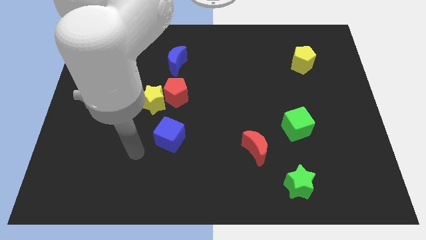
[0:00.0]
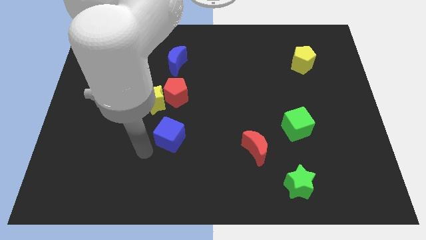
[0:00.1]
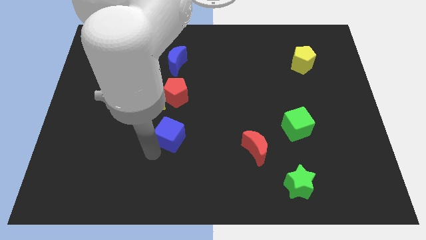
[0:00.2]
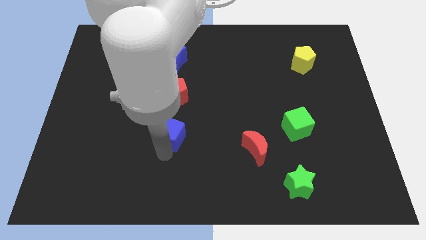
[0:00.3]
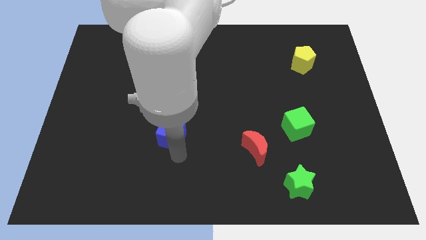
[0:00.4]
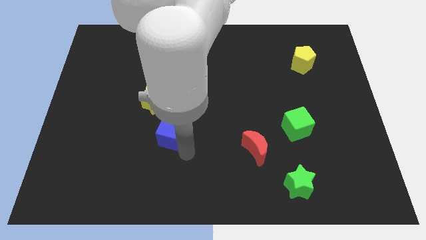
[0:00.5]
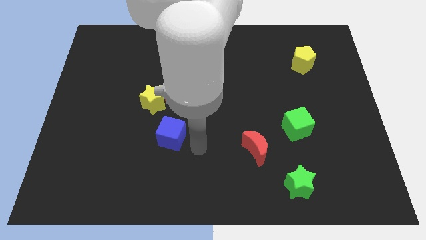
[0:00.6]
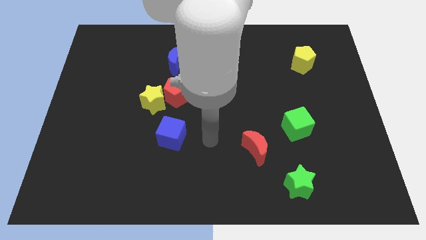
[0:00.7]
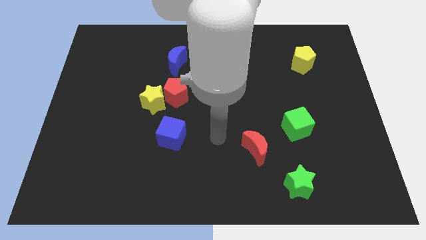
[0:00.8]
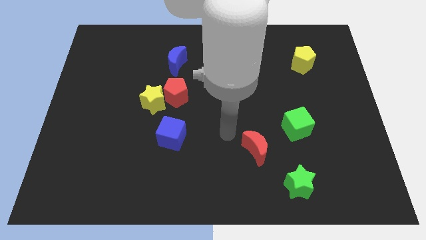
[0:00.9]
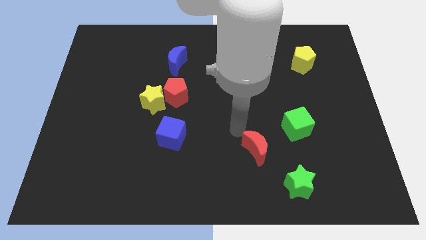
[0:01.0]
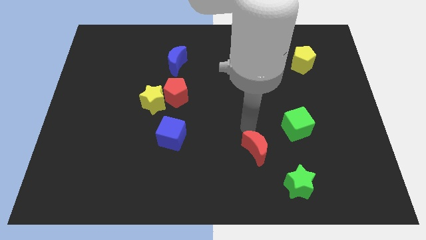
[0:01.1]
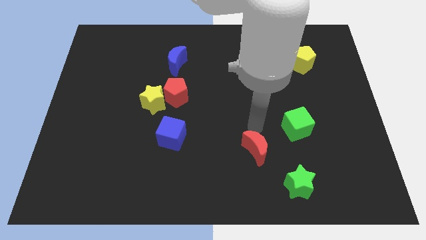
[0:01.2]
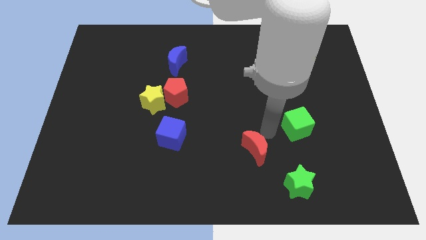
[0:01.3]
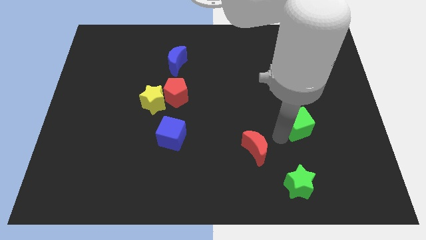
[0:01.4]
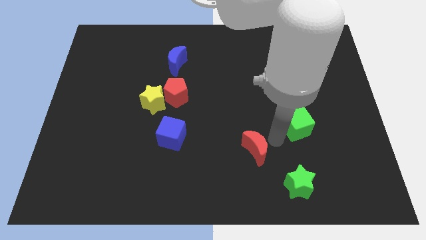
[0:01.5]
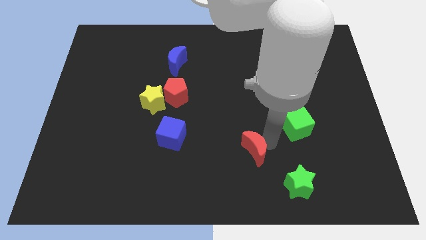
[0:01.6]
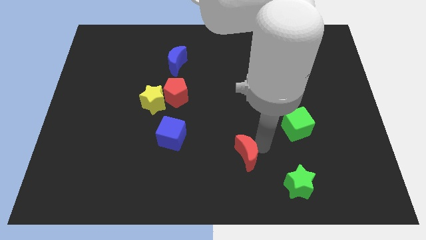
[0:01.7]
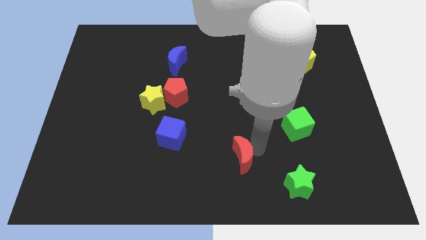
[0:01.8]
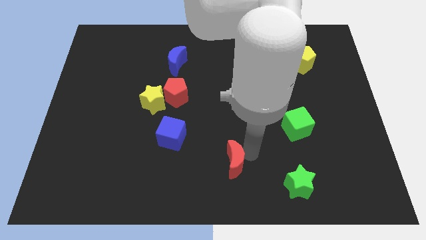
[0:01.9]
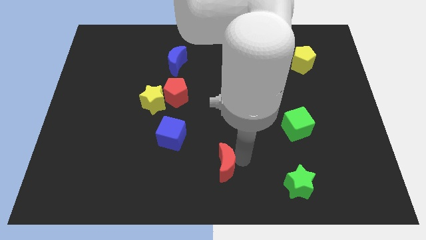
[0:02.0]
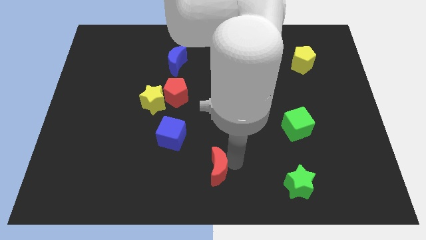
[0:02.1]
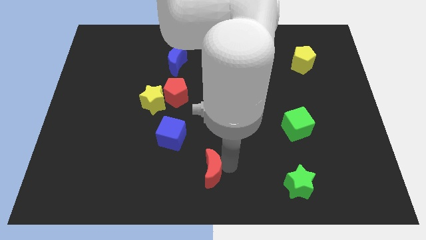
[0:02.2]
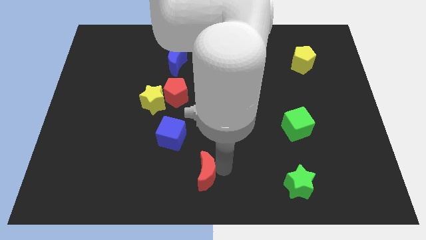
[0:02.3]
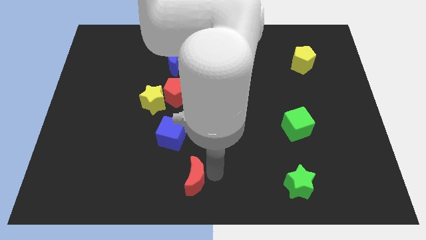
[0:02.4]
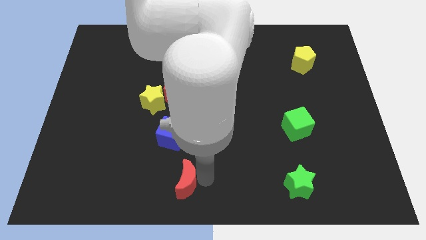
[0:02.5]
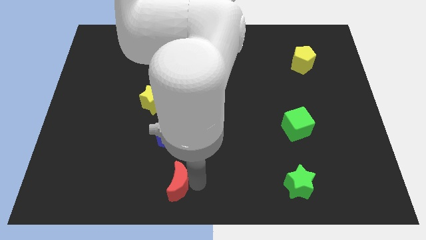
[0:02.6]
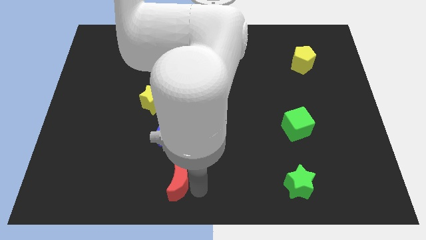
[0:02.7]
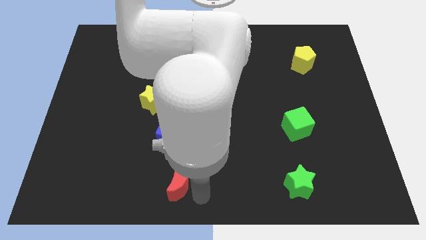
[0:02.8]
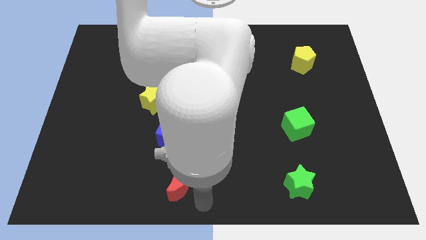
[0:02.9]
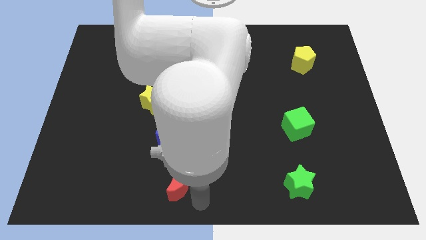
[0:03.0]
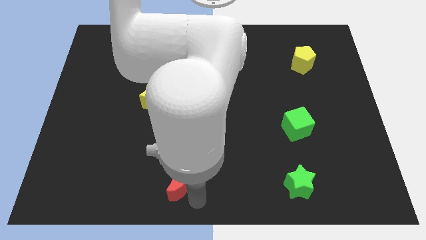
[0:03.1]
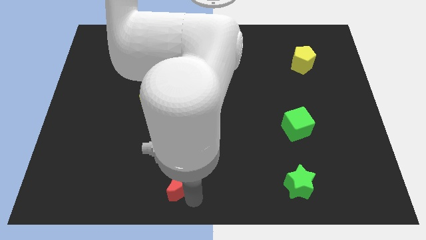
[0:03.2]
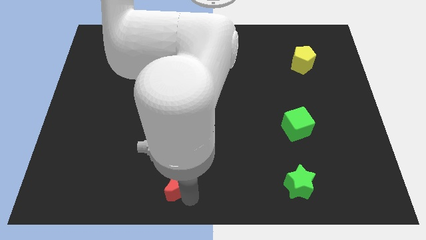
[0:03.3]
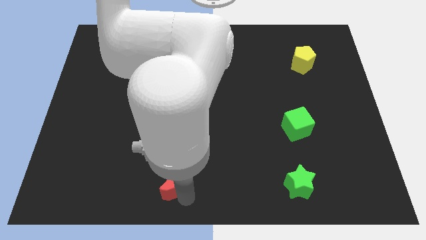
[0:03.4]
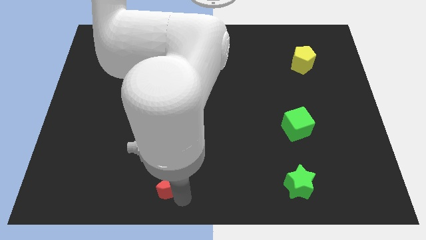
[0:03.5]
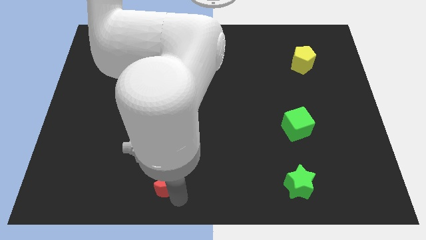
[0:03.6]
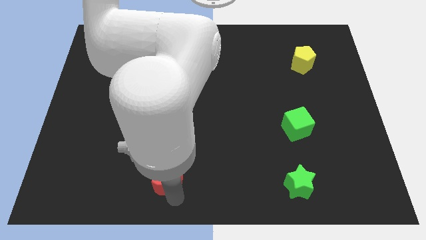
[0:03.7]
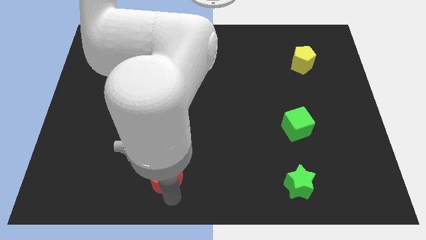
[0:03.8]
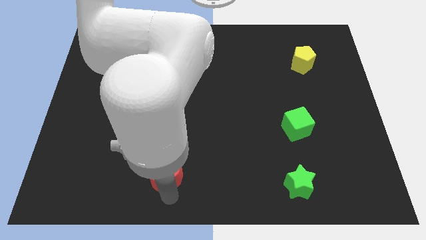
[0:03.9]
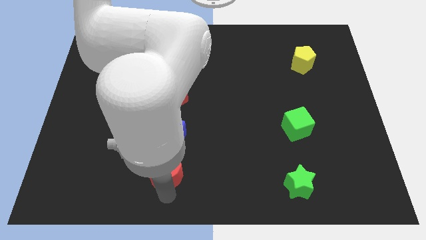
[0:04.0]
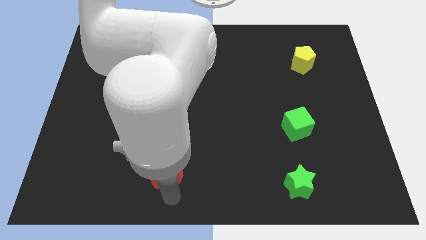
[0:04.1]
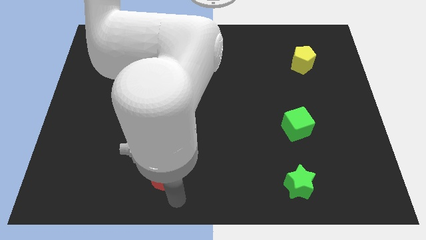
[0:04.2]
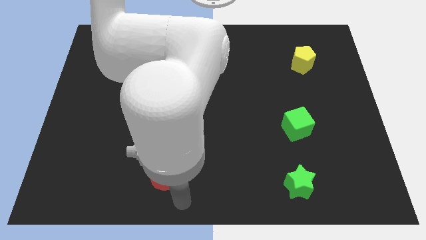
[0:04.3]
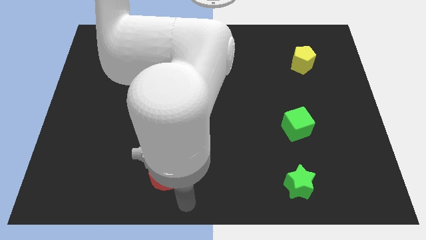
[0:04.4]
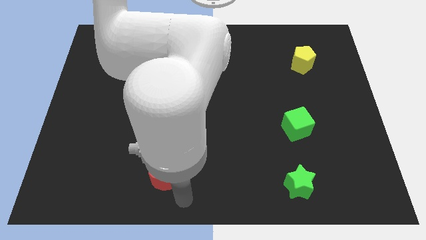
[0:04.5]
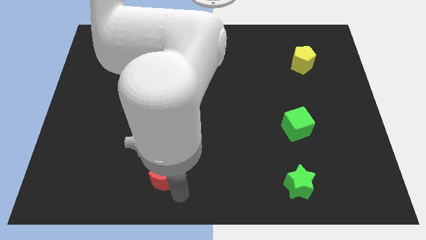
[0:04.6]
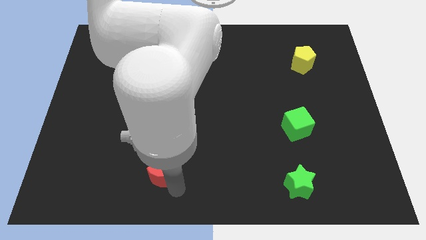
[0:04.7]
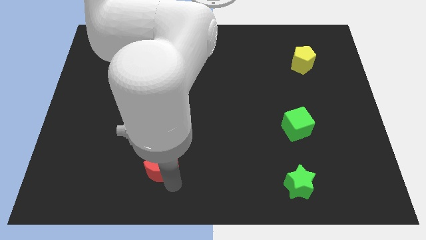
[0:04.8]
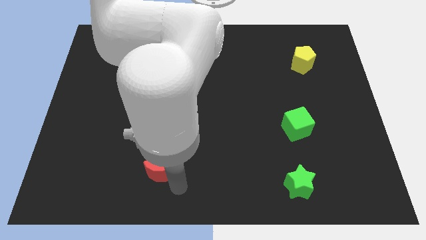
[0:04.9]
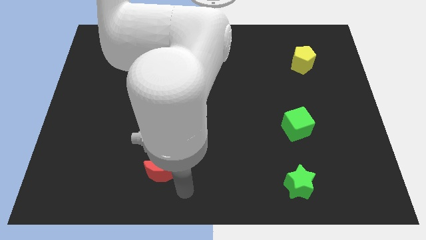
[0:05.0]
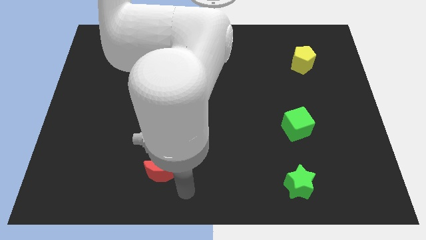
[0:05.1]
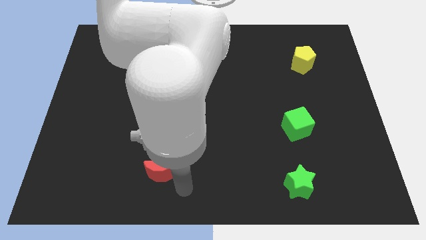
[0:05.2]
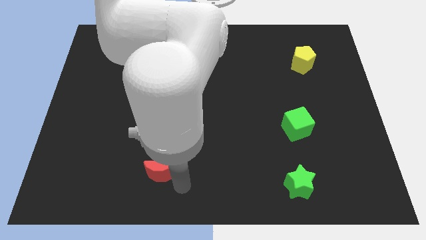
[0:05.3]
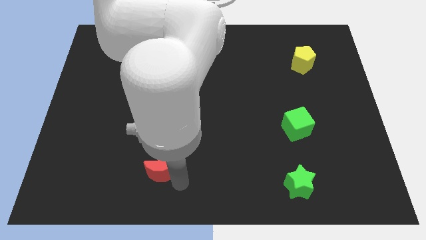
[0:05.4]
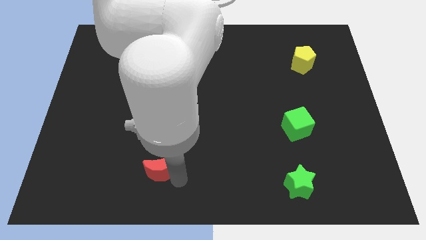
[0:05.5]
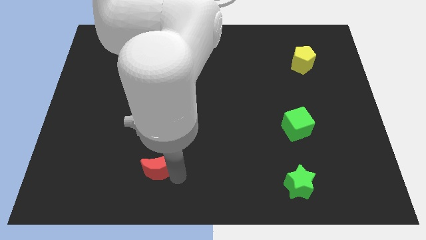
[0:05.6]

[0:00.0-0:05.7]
put the red moon to the bottom left of the blue cube

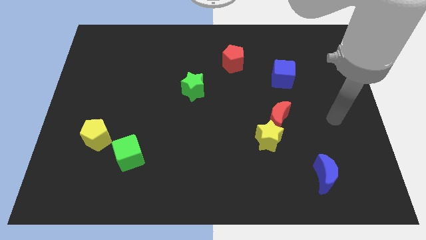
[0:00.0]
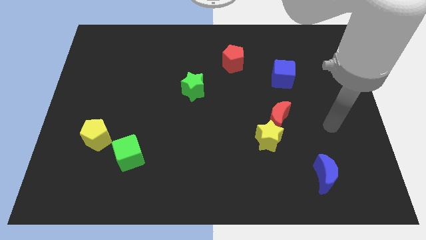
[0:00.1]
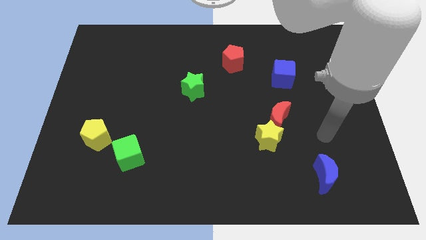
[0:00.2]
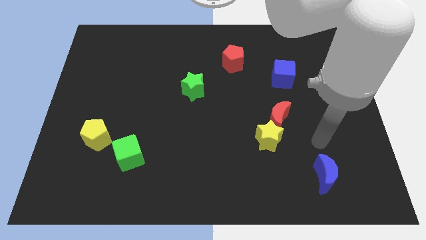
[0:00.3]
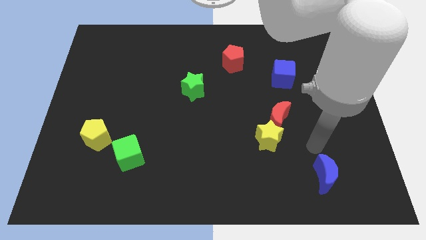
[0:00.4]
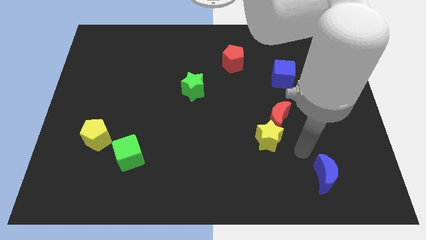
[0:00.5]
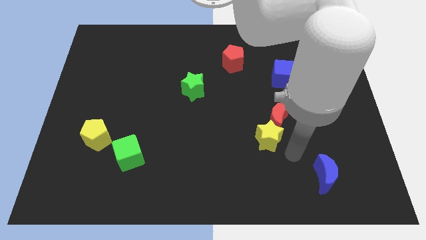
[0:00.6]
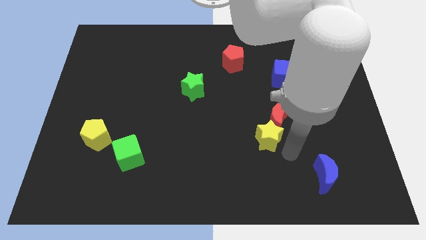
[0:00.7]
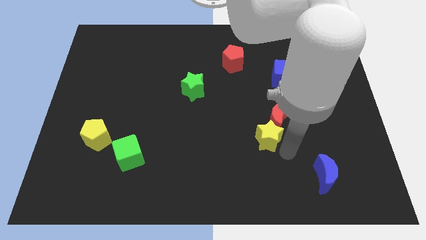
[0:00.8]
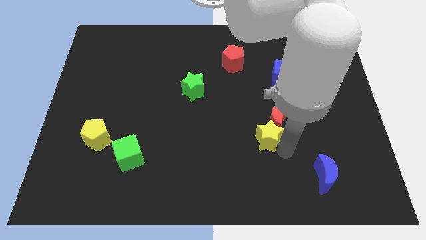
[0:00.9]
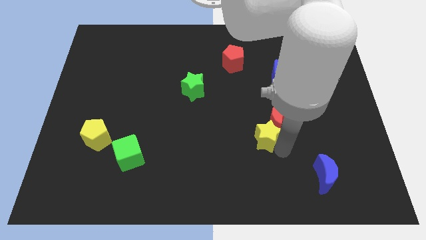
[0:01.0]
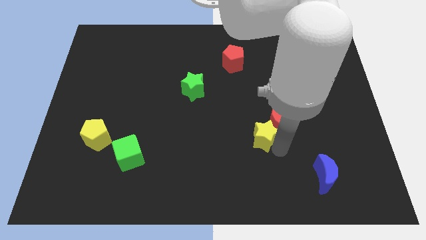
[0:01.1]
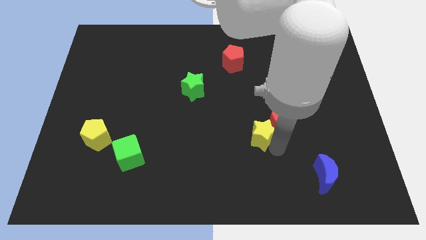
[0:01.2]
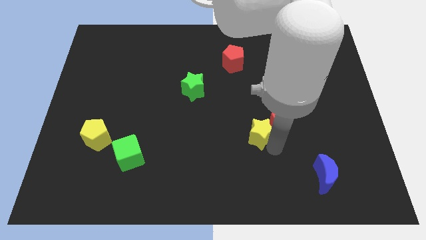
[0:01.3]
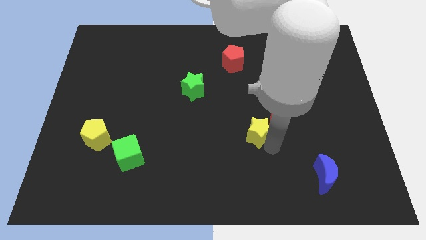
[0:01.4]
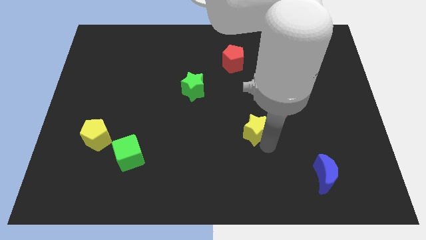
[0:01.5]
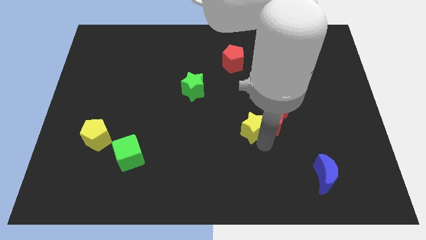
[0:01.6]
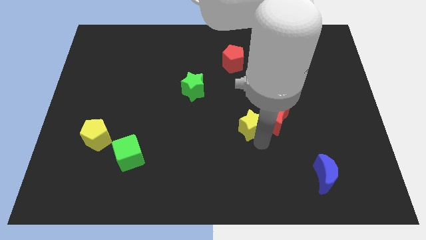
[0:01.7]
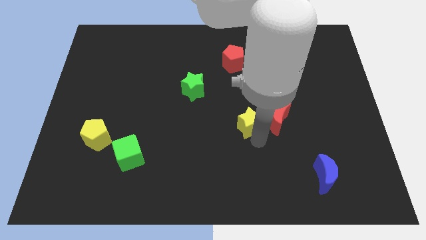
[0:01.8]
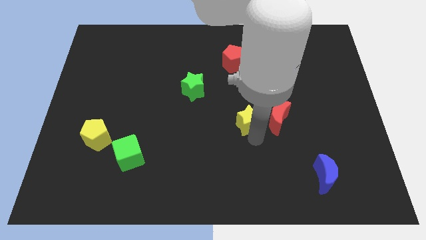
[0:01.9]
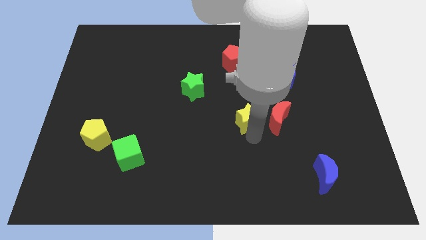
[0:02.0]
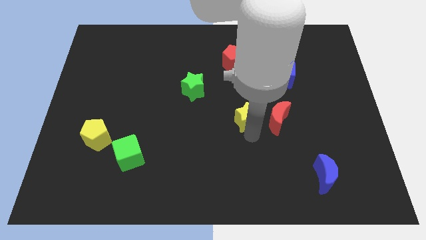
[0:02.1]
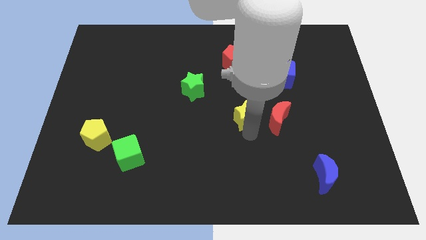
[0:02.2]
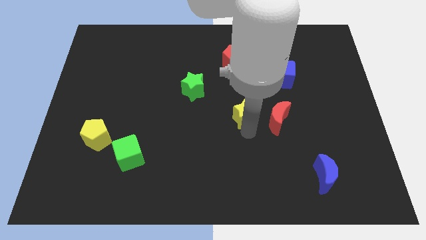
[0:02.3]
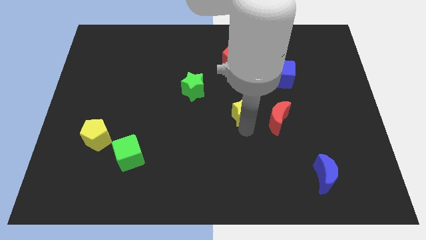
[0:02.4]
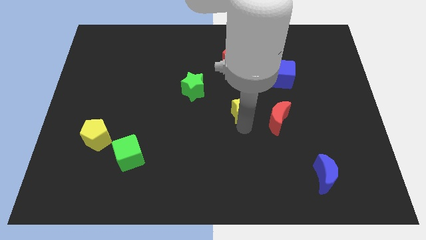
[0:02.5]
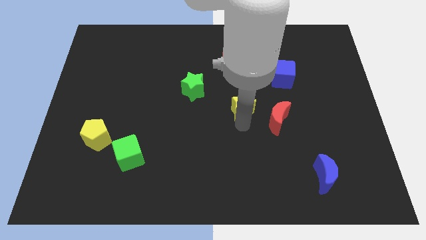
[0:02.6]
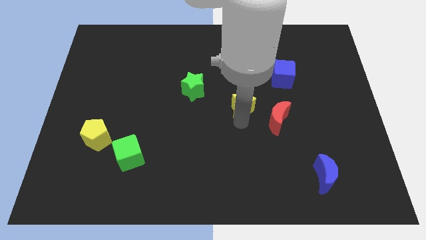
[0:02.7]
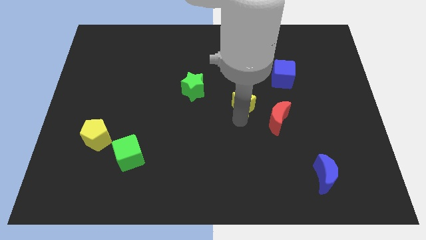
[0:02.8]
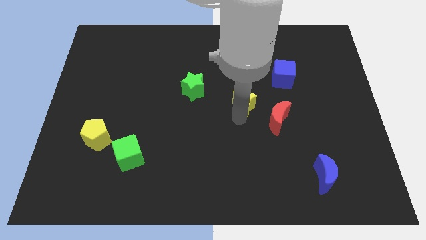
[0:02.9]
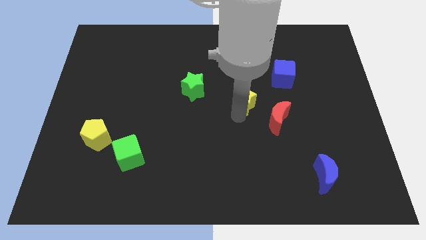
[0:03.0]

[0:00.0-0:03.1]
slide the yellow star to the bottom left side of the blue cube
